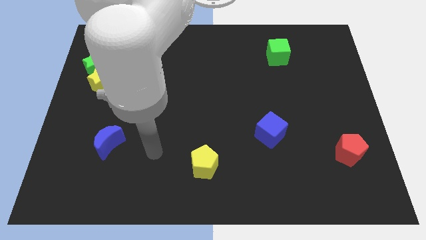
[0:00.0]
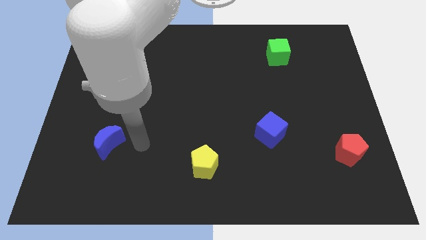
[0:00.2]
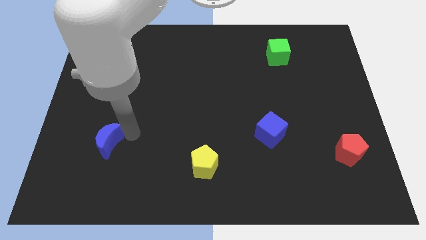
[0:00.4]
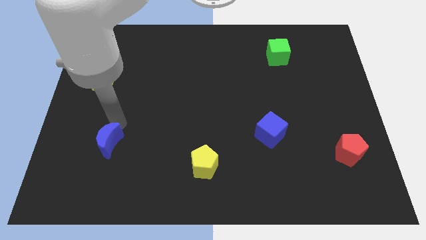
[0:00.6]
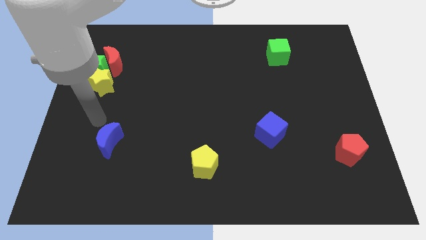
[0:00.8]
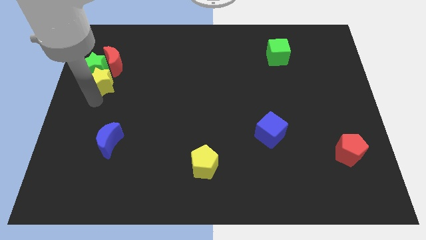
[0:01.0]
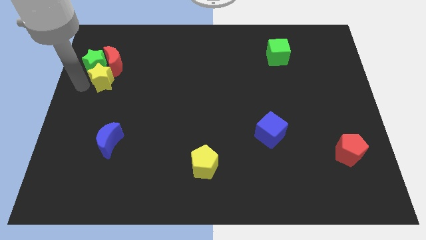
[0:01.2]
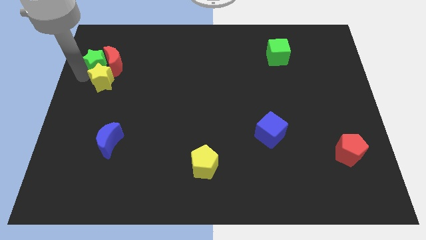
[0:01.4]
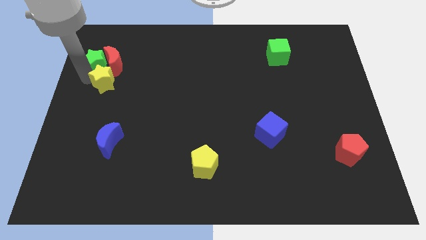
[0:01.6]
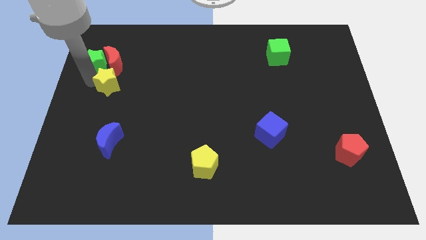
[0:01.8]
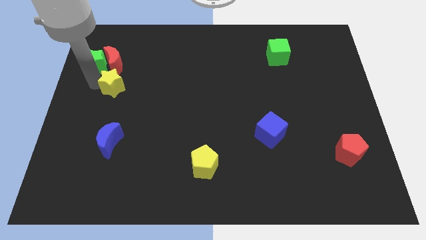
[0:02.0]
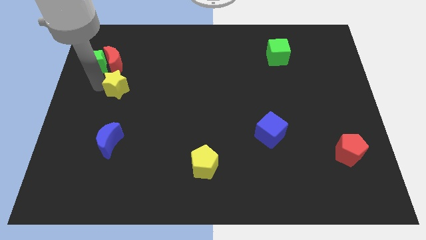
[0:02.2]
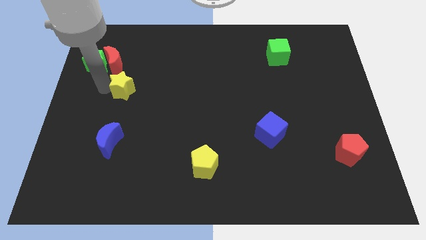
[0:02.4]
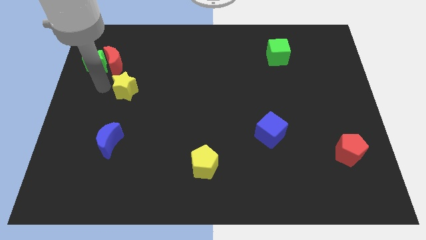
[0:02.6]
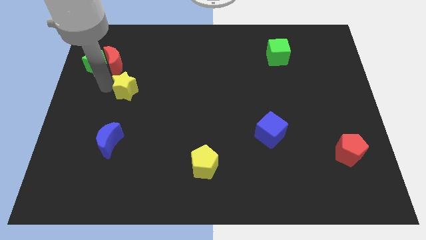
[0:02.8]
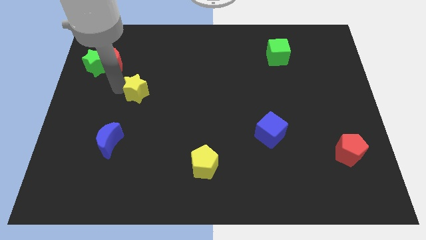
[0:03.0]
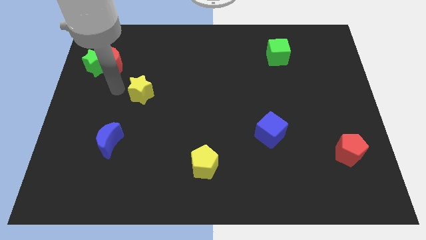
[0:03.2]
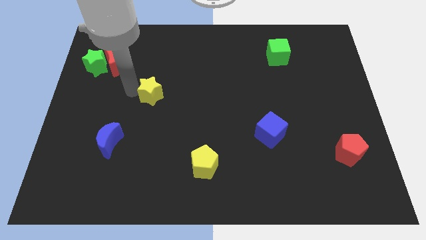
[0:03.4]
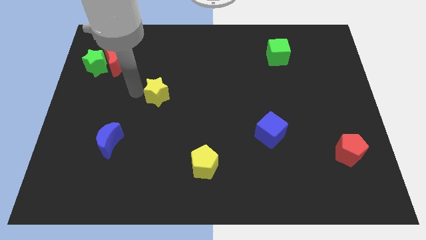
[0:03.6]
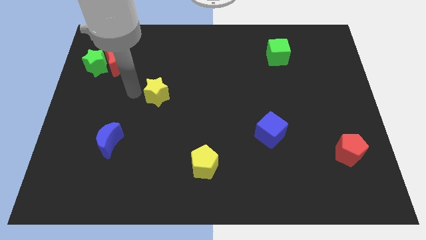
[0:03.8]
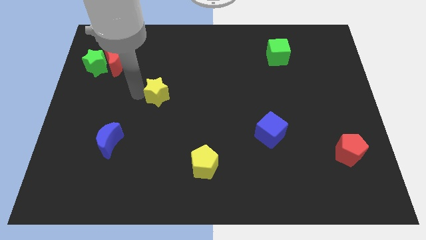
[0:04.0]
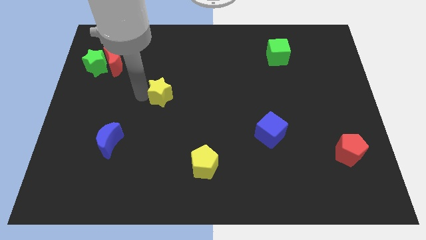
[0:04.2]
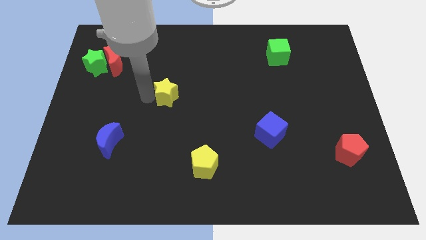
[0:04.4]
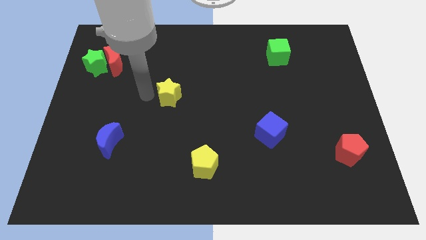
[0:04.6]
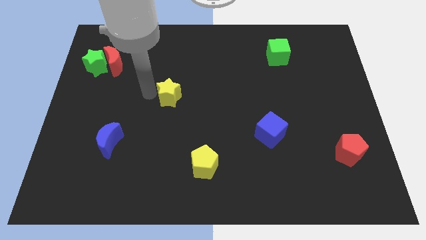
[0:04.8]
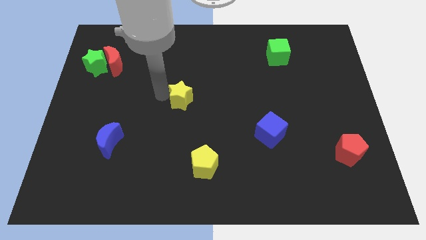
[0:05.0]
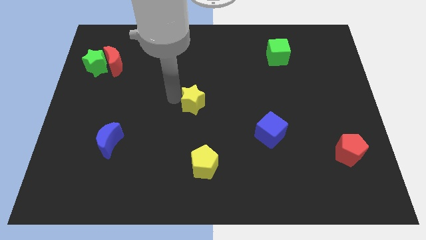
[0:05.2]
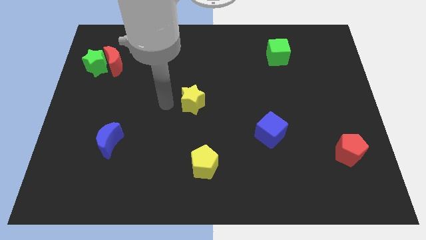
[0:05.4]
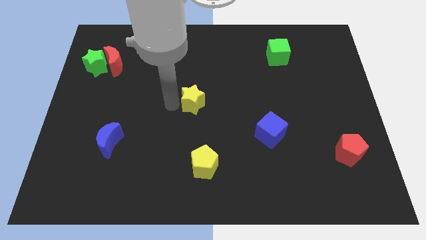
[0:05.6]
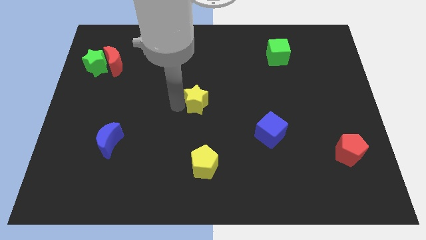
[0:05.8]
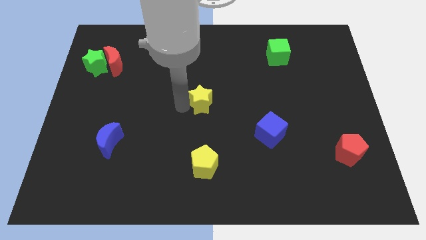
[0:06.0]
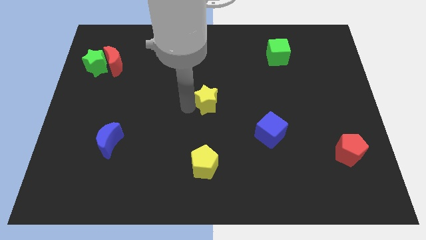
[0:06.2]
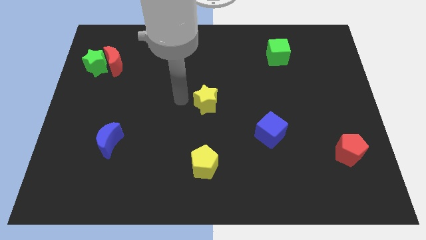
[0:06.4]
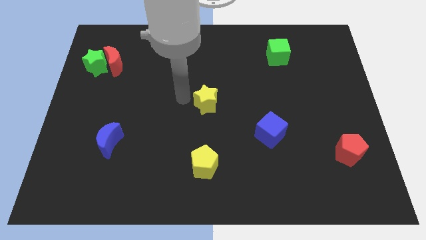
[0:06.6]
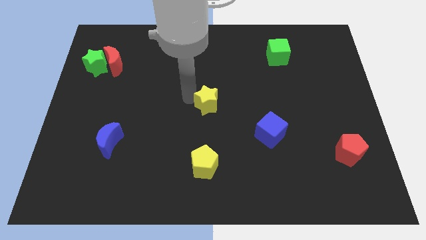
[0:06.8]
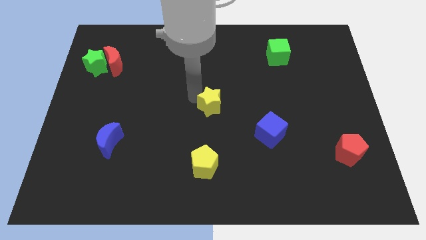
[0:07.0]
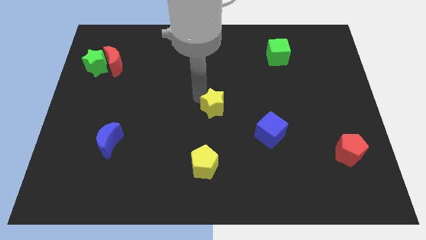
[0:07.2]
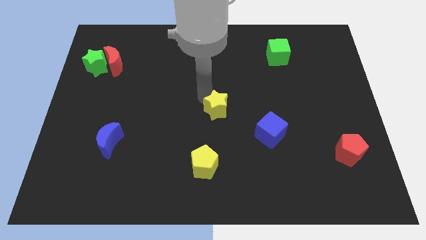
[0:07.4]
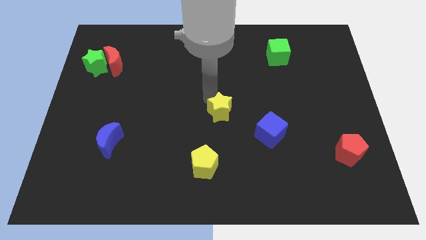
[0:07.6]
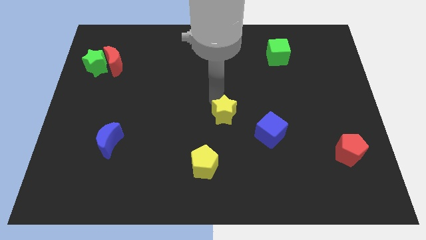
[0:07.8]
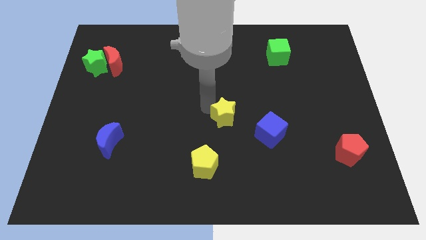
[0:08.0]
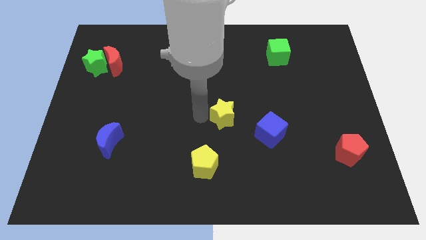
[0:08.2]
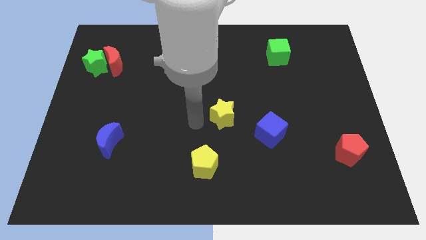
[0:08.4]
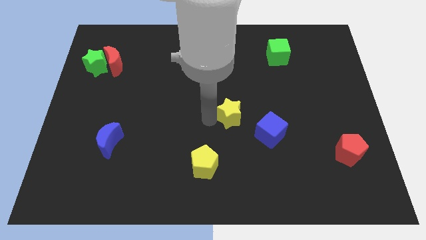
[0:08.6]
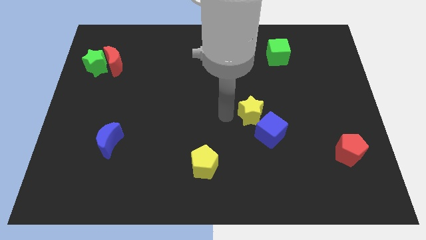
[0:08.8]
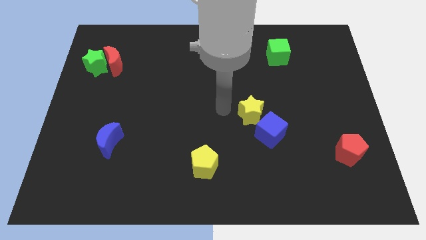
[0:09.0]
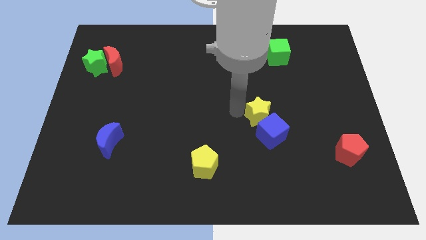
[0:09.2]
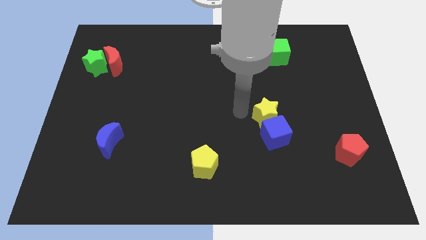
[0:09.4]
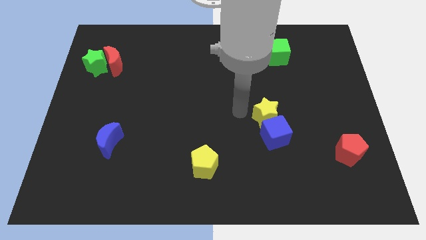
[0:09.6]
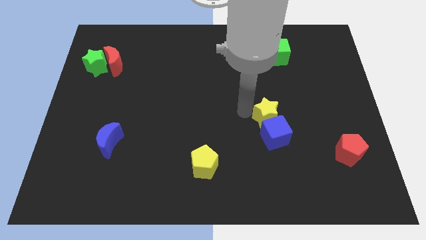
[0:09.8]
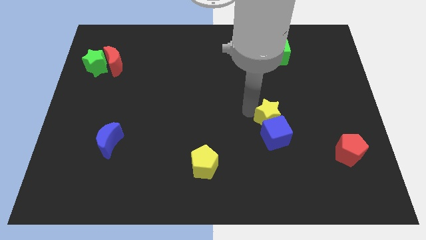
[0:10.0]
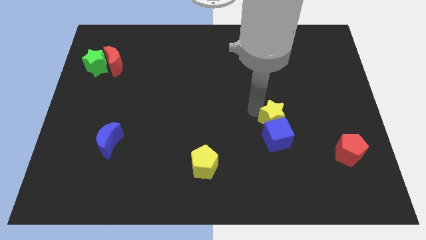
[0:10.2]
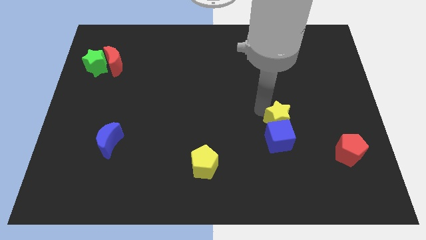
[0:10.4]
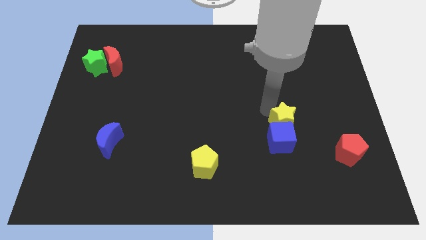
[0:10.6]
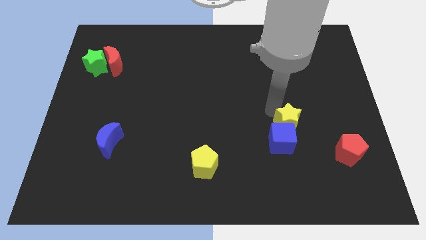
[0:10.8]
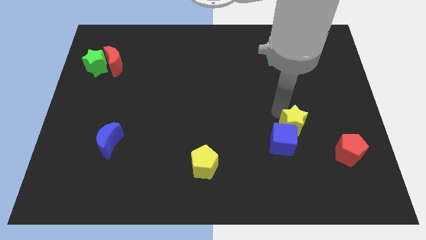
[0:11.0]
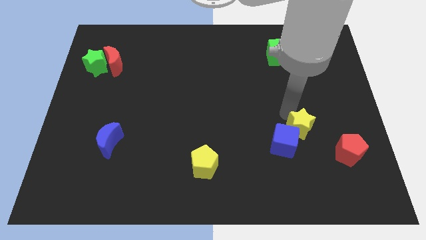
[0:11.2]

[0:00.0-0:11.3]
put the yellow star to the right of the blue cube
